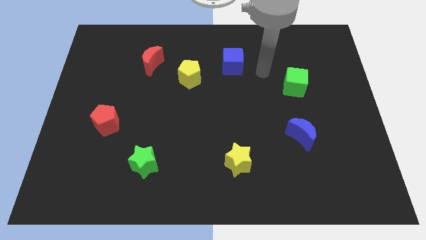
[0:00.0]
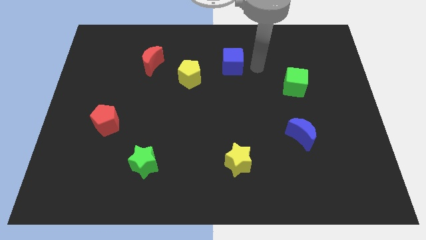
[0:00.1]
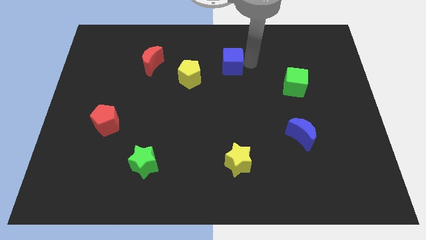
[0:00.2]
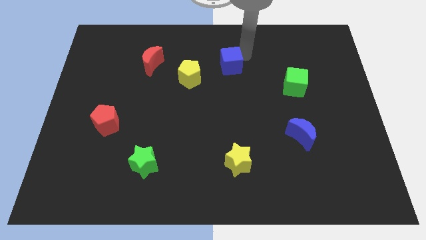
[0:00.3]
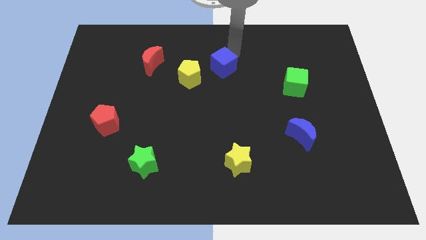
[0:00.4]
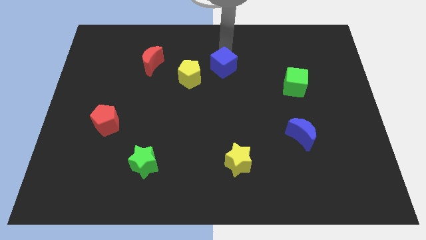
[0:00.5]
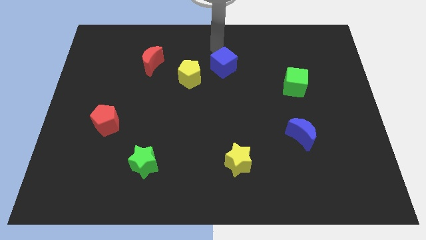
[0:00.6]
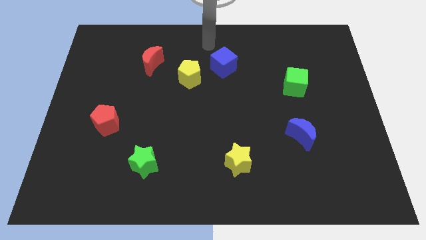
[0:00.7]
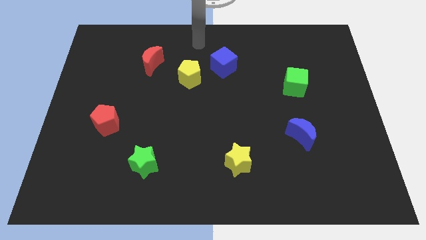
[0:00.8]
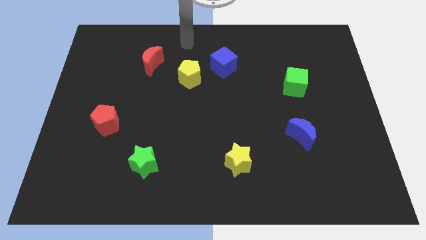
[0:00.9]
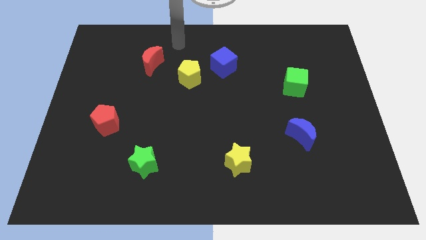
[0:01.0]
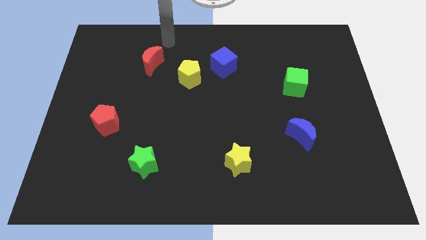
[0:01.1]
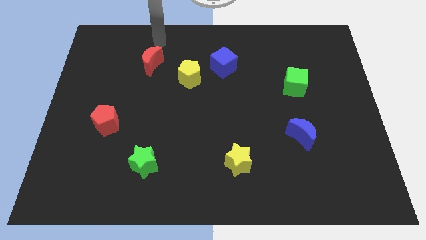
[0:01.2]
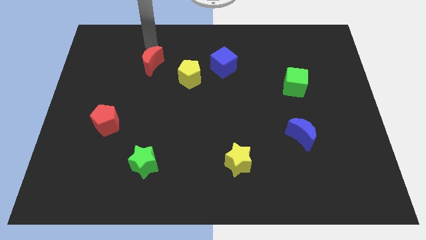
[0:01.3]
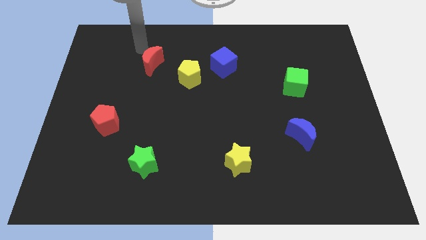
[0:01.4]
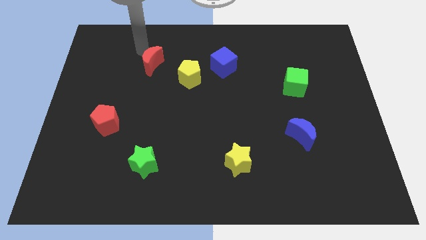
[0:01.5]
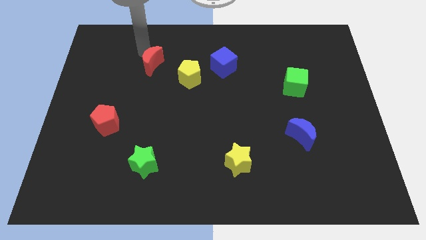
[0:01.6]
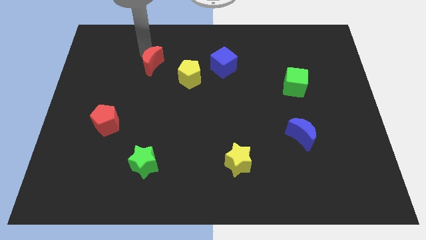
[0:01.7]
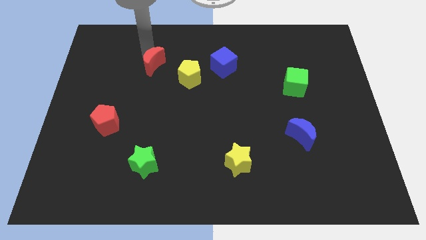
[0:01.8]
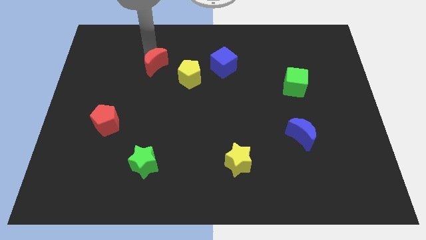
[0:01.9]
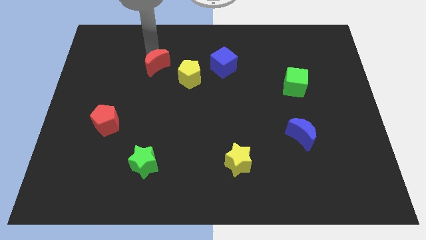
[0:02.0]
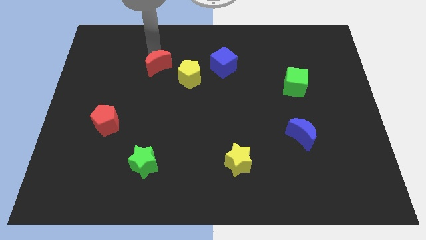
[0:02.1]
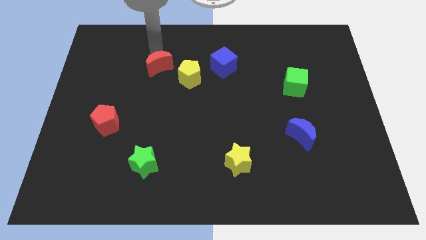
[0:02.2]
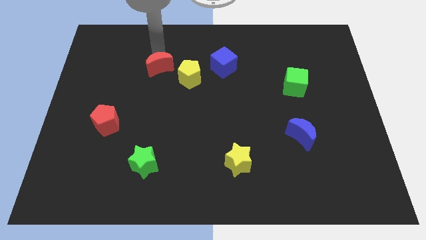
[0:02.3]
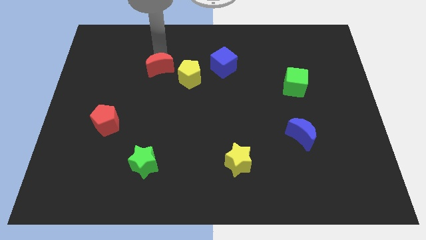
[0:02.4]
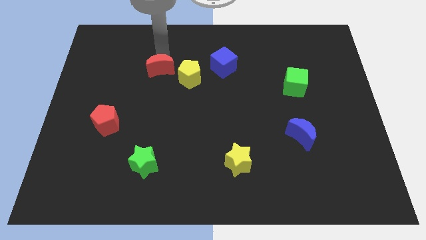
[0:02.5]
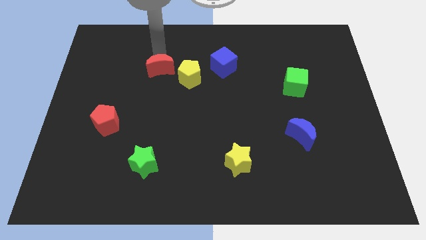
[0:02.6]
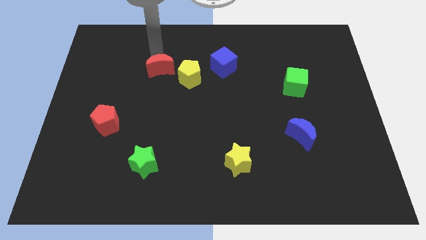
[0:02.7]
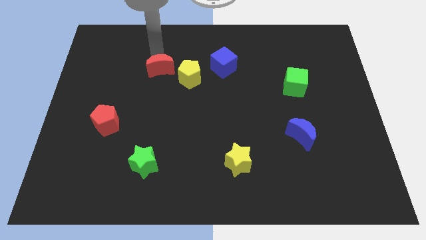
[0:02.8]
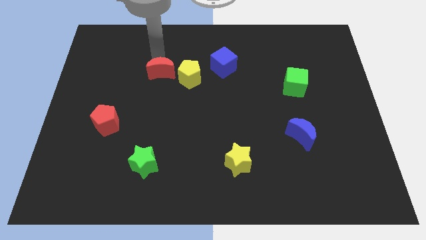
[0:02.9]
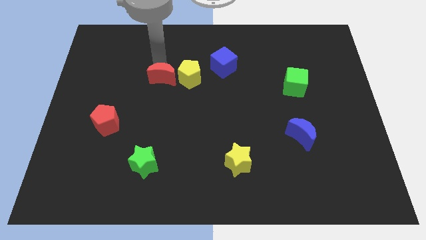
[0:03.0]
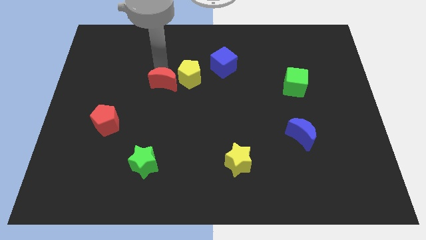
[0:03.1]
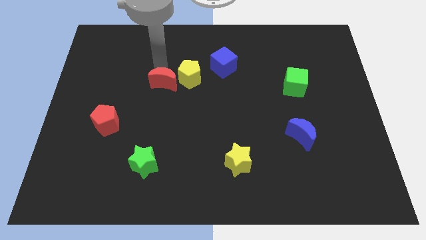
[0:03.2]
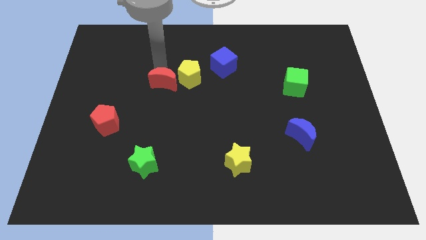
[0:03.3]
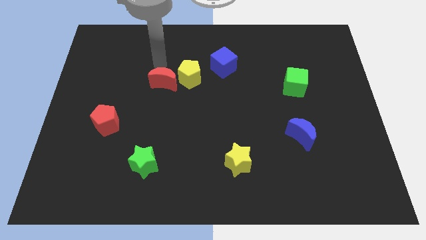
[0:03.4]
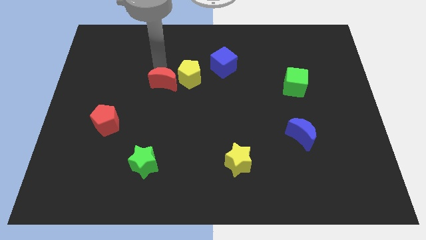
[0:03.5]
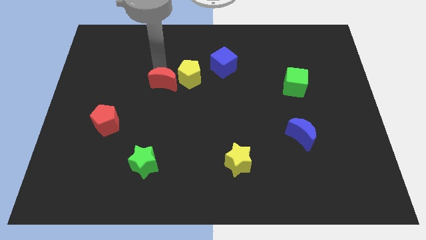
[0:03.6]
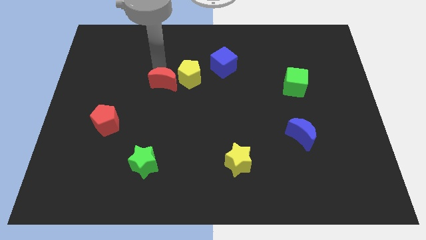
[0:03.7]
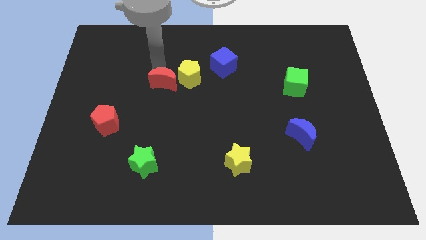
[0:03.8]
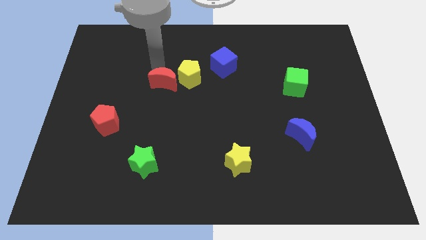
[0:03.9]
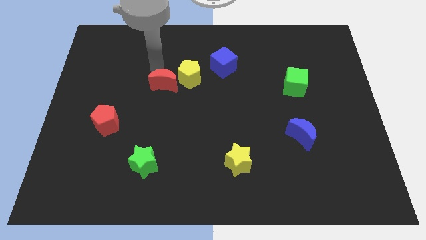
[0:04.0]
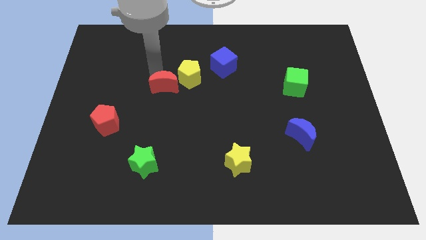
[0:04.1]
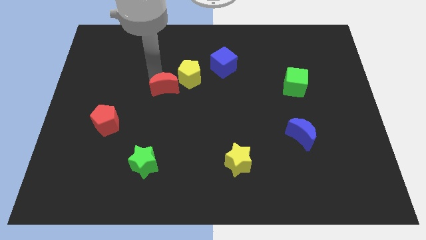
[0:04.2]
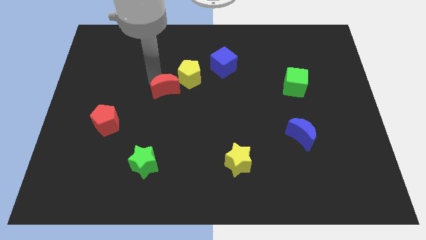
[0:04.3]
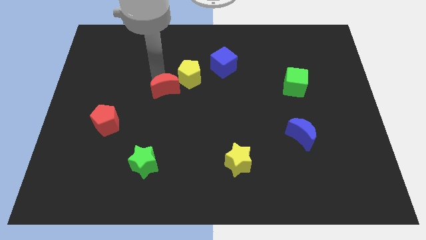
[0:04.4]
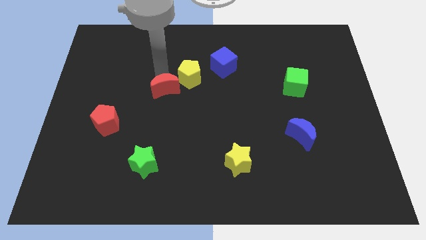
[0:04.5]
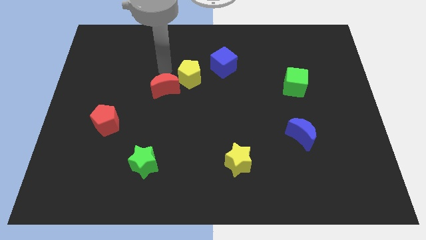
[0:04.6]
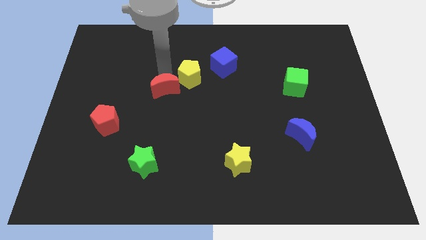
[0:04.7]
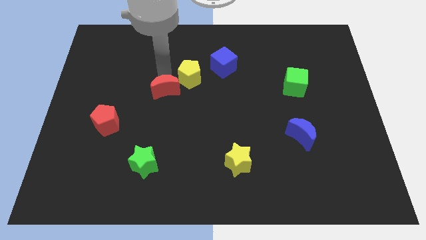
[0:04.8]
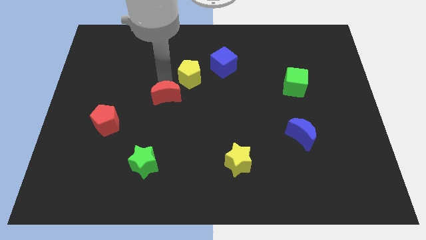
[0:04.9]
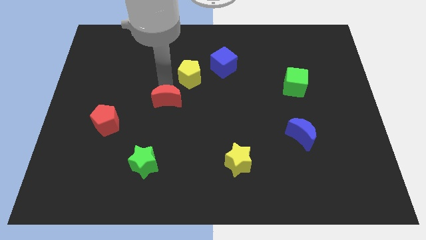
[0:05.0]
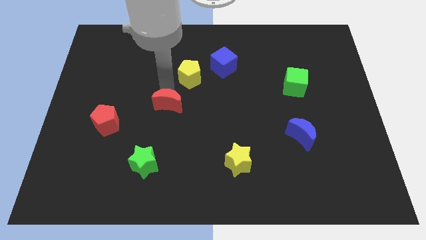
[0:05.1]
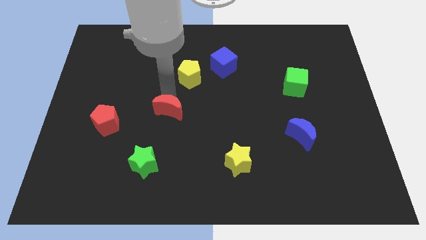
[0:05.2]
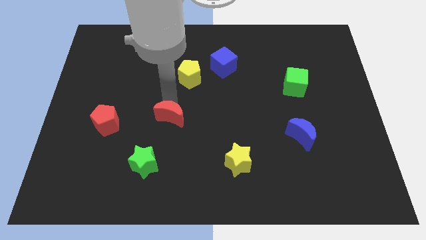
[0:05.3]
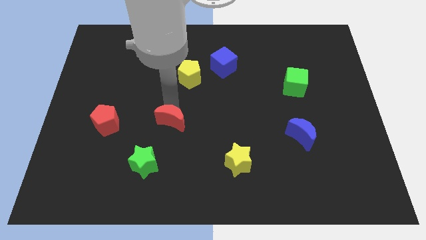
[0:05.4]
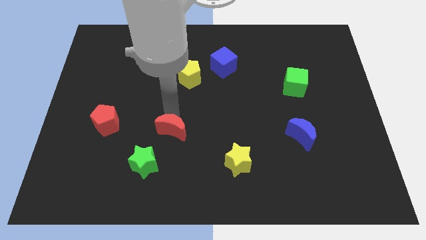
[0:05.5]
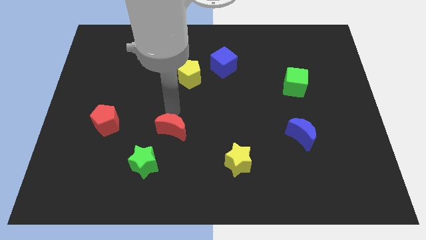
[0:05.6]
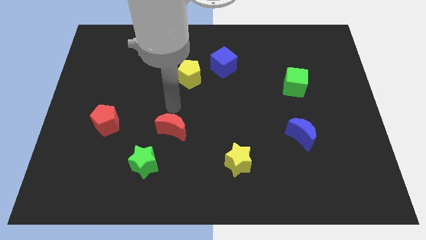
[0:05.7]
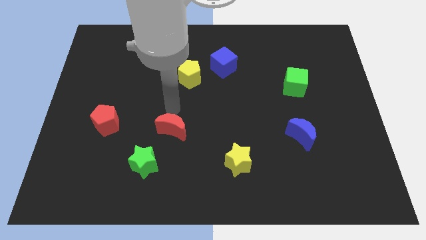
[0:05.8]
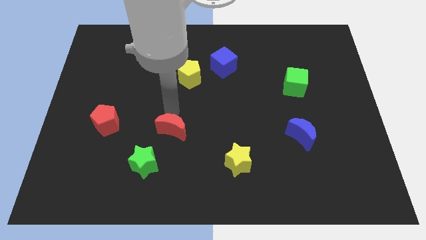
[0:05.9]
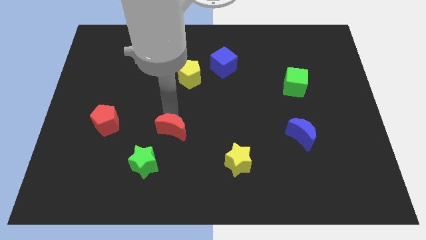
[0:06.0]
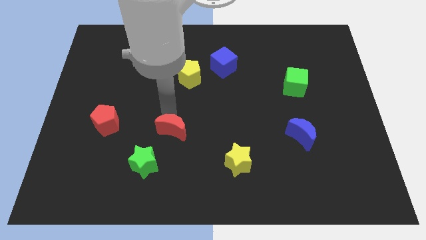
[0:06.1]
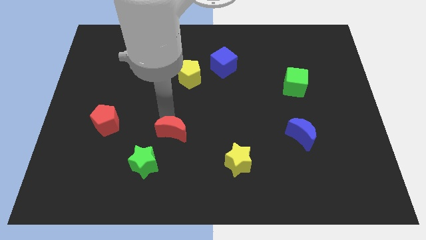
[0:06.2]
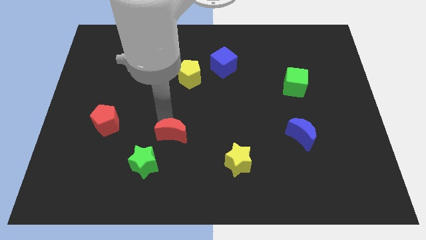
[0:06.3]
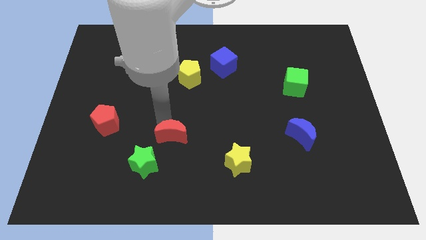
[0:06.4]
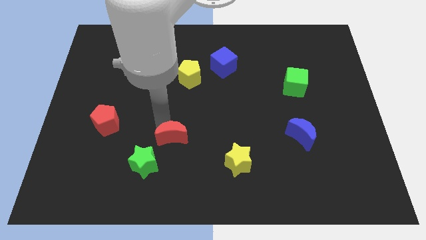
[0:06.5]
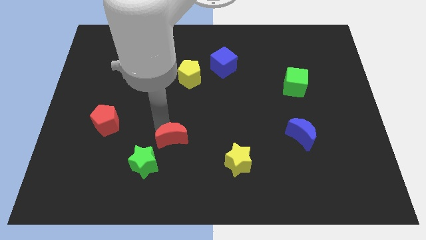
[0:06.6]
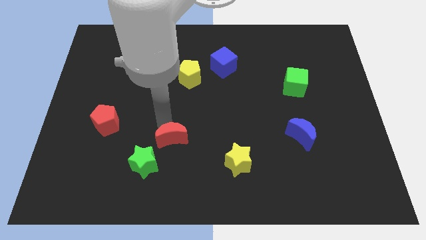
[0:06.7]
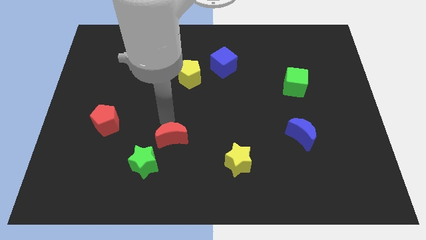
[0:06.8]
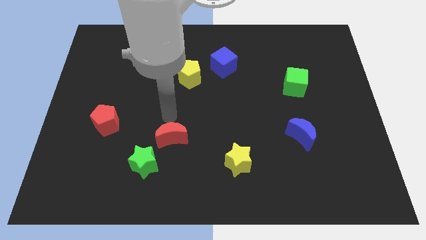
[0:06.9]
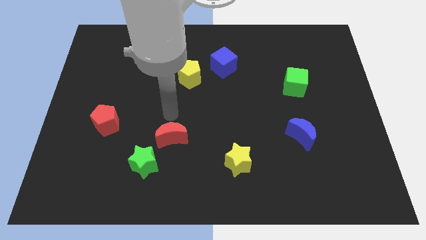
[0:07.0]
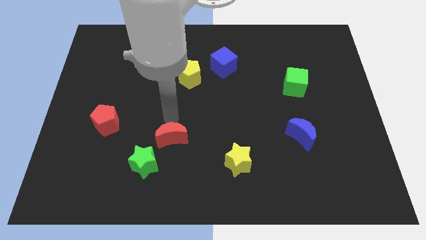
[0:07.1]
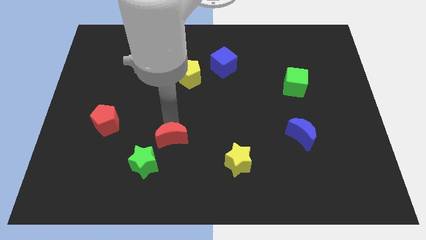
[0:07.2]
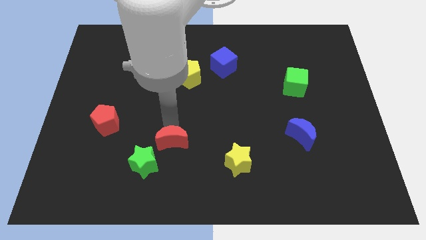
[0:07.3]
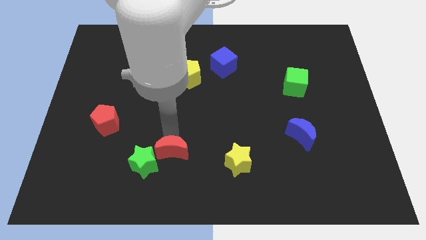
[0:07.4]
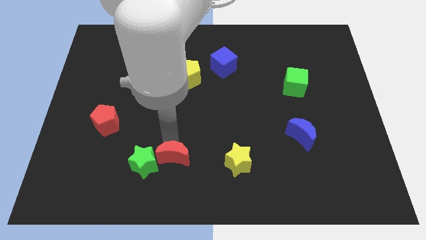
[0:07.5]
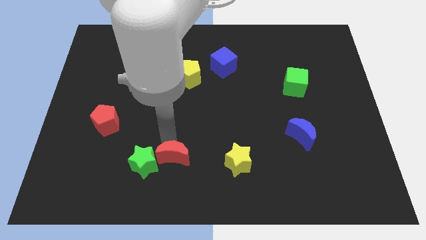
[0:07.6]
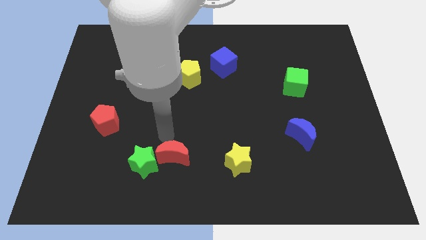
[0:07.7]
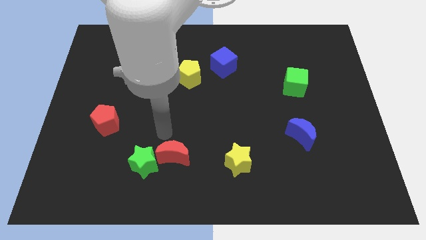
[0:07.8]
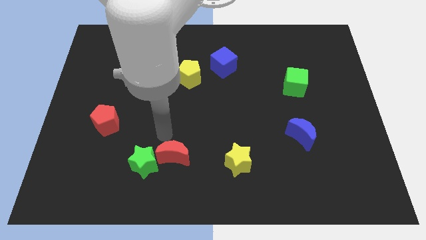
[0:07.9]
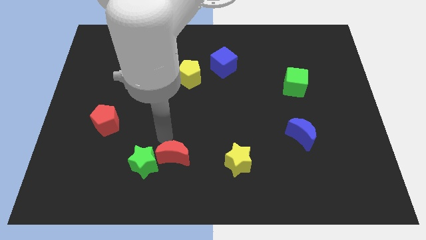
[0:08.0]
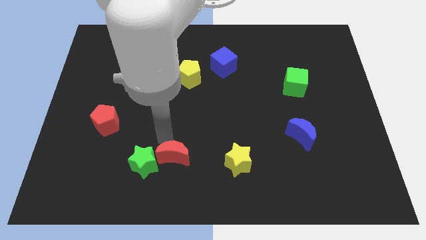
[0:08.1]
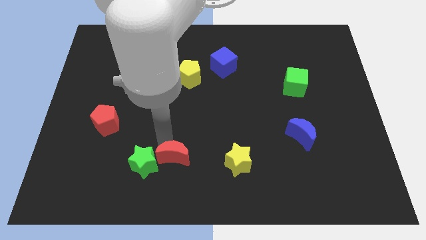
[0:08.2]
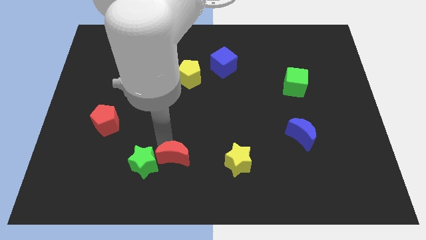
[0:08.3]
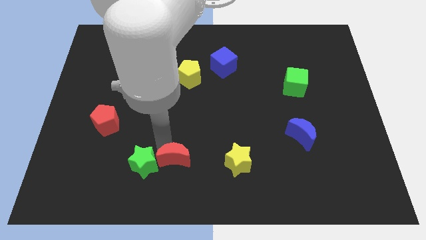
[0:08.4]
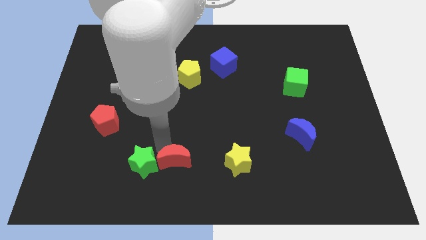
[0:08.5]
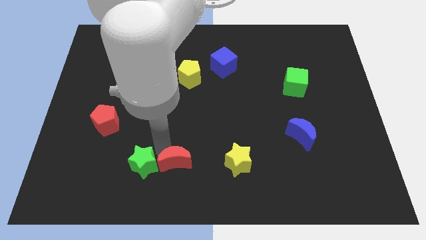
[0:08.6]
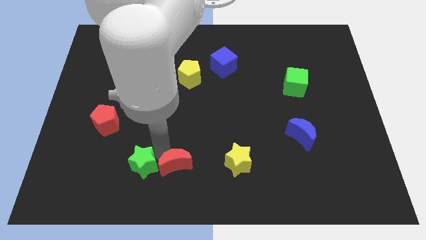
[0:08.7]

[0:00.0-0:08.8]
move the red moon to the bottom
